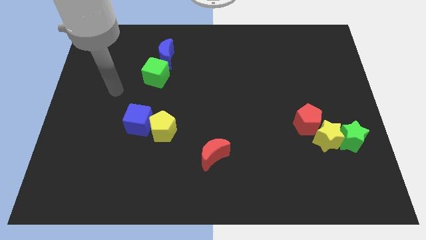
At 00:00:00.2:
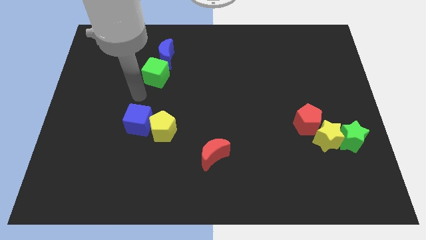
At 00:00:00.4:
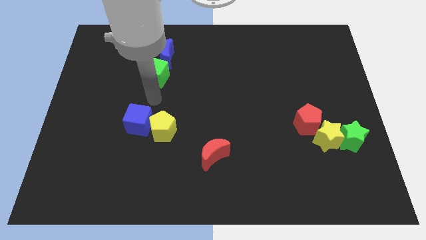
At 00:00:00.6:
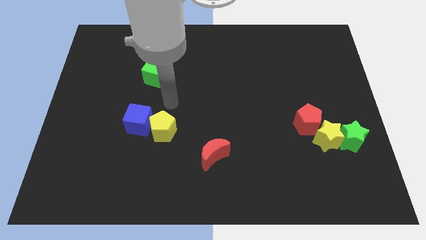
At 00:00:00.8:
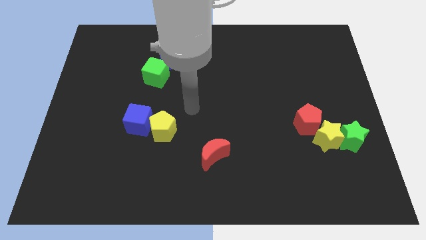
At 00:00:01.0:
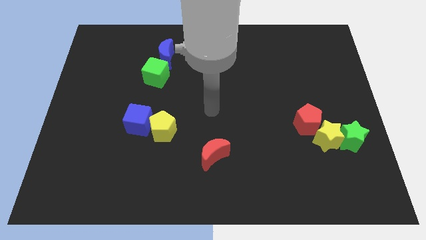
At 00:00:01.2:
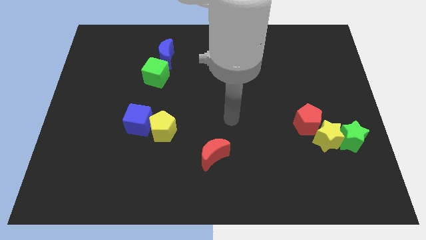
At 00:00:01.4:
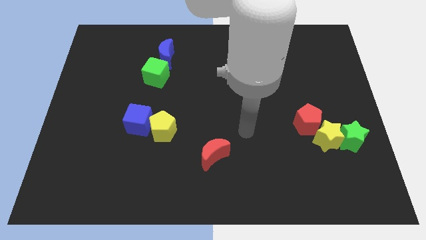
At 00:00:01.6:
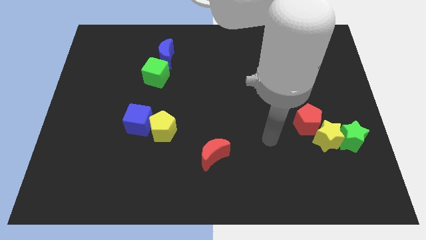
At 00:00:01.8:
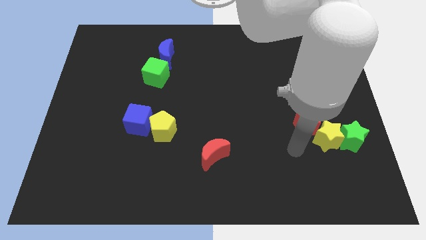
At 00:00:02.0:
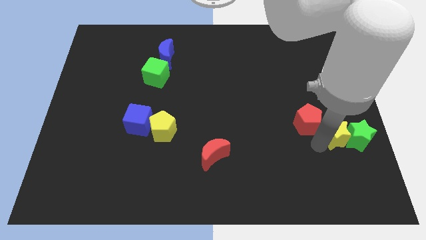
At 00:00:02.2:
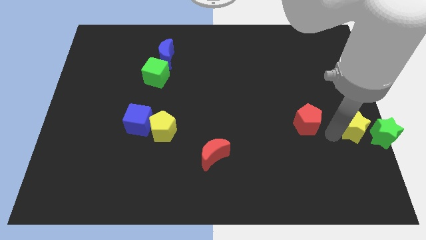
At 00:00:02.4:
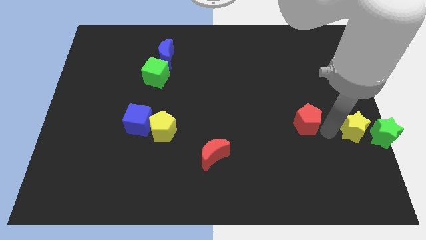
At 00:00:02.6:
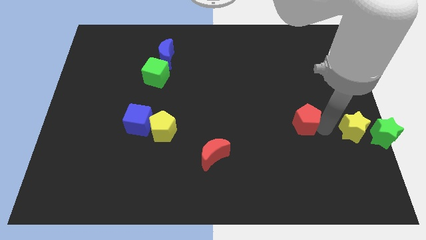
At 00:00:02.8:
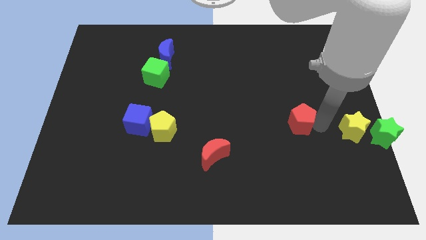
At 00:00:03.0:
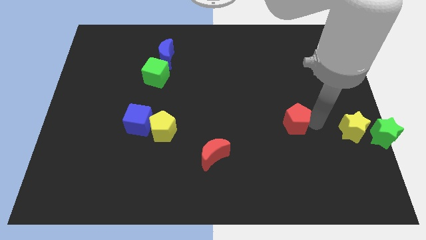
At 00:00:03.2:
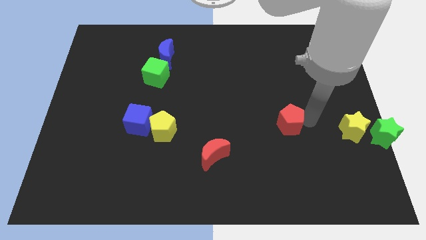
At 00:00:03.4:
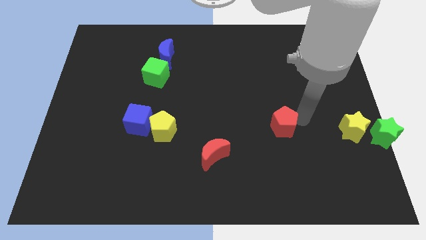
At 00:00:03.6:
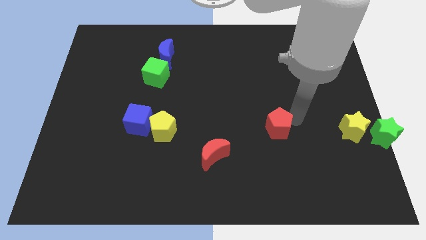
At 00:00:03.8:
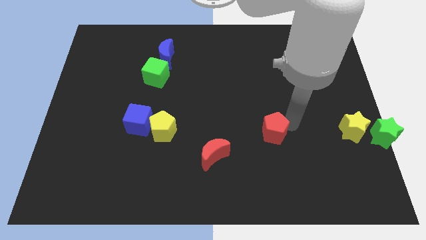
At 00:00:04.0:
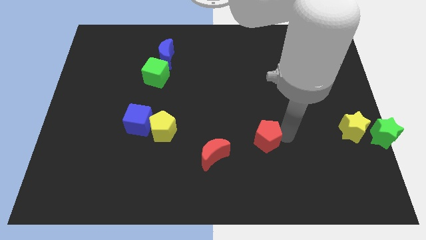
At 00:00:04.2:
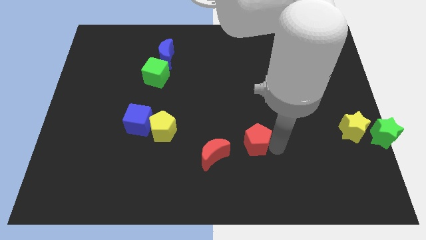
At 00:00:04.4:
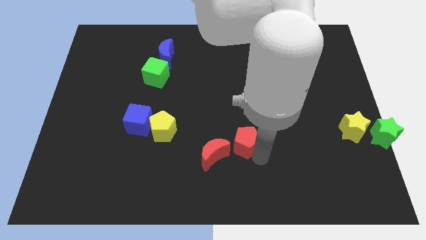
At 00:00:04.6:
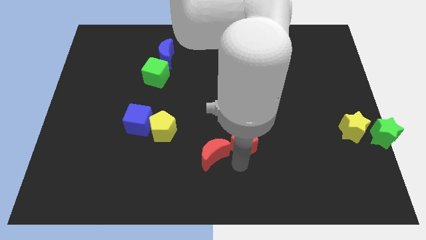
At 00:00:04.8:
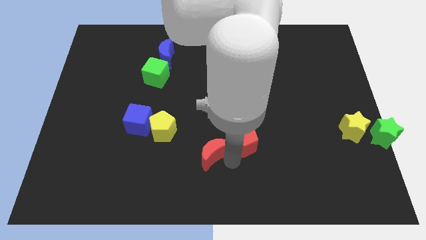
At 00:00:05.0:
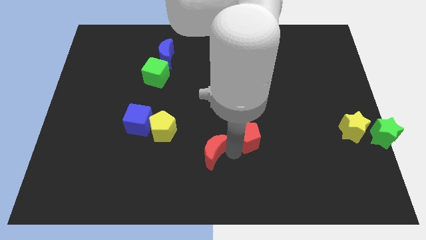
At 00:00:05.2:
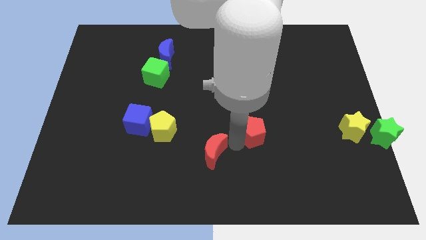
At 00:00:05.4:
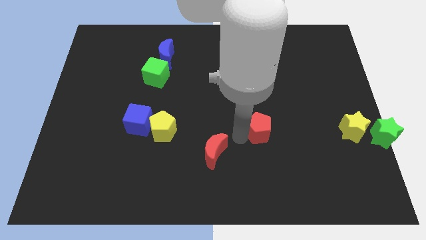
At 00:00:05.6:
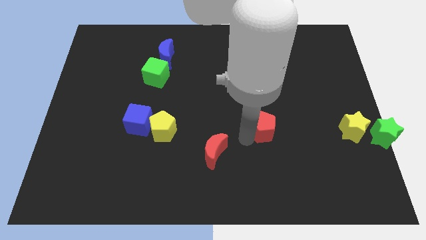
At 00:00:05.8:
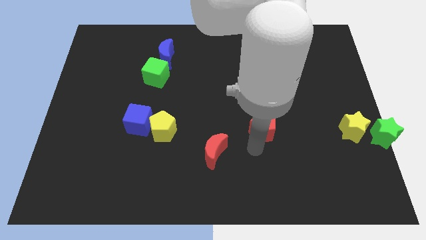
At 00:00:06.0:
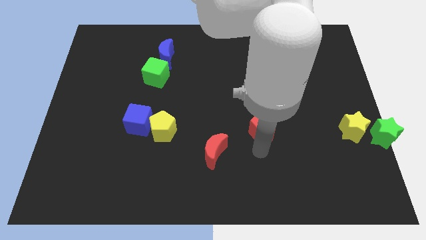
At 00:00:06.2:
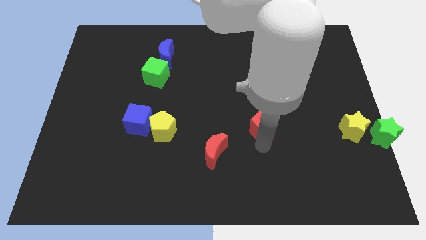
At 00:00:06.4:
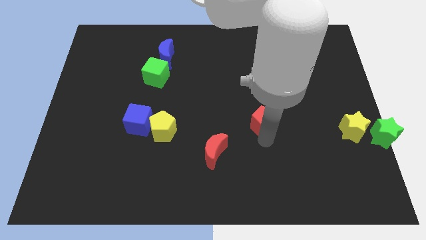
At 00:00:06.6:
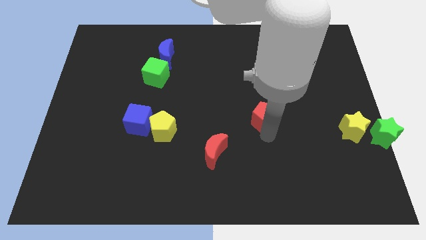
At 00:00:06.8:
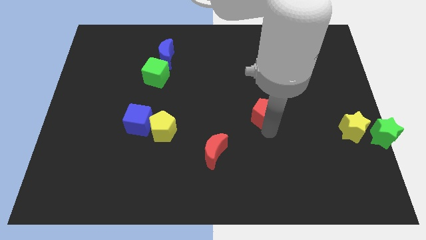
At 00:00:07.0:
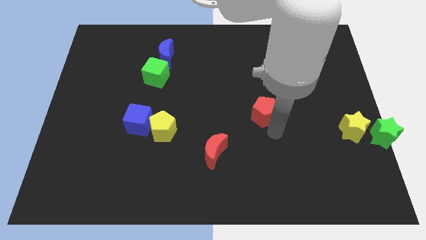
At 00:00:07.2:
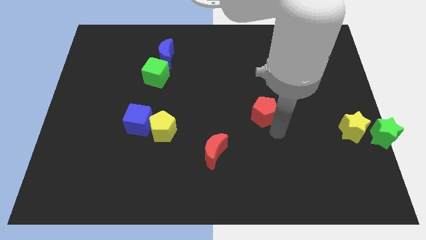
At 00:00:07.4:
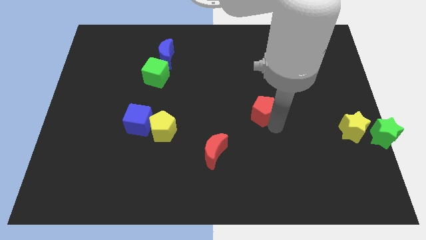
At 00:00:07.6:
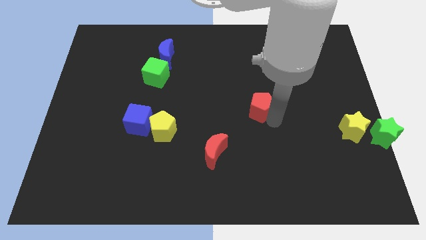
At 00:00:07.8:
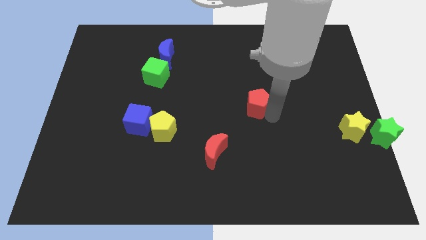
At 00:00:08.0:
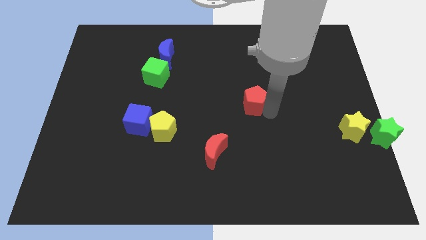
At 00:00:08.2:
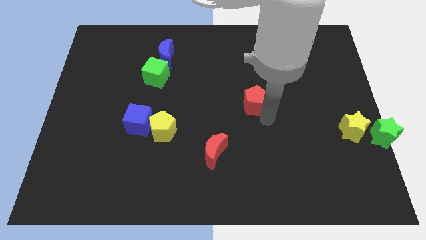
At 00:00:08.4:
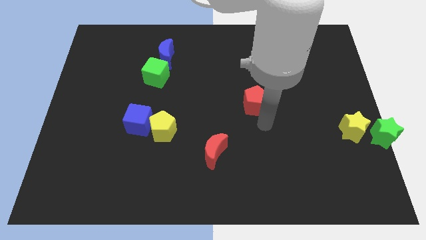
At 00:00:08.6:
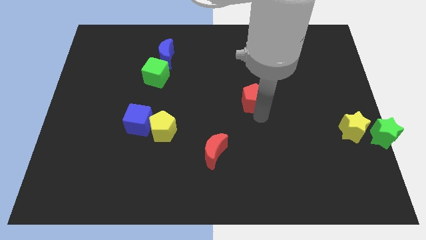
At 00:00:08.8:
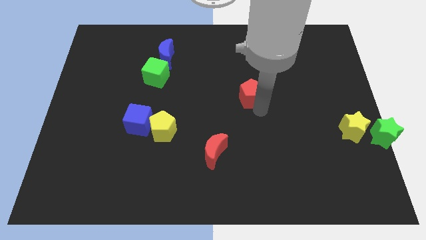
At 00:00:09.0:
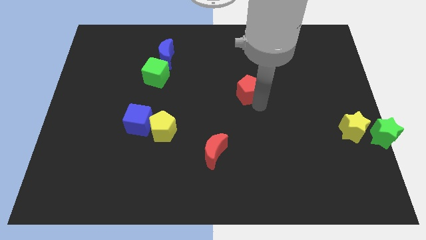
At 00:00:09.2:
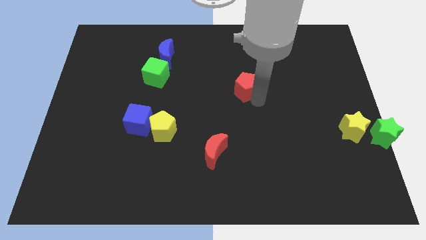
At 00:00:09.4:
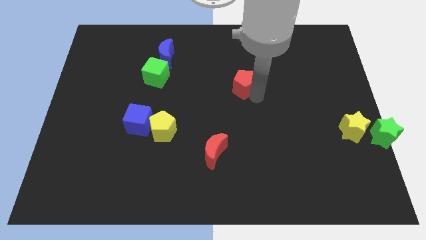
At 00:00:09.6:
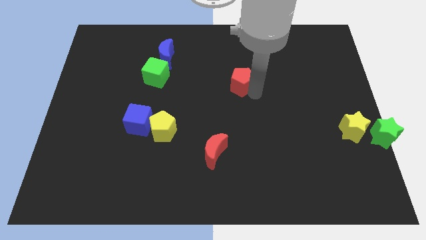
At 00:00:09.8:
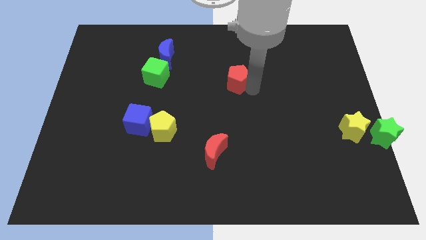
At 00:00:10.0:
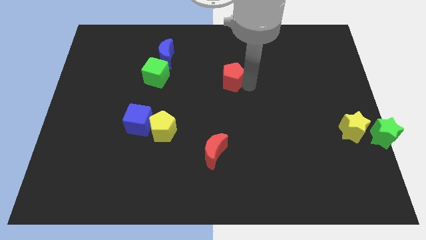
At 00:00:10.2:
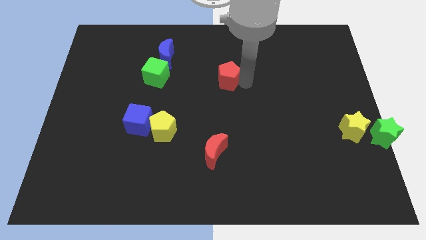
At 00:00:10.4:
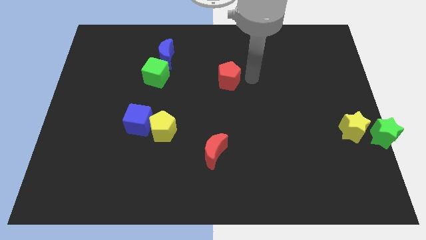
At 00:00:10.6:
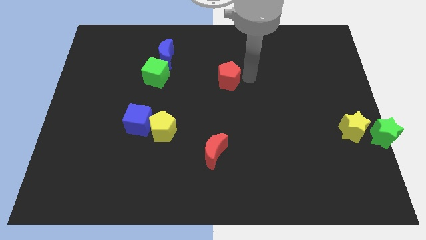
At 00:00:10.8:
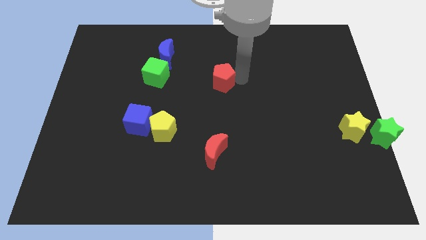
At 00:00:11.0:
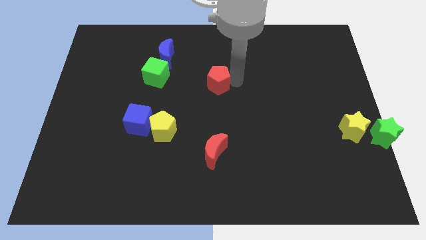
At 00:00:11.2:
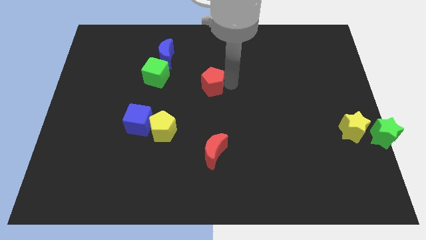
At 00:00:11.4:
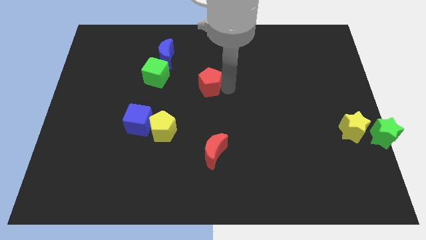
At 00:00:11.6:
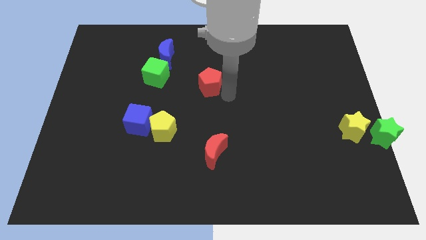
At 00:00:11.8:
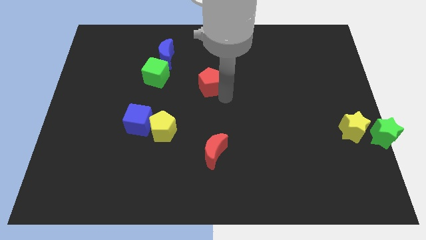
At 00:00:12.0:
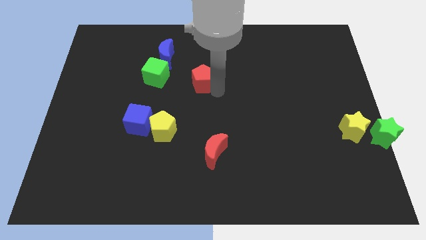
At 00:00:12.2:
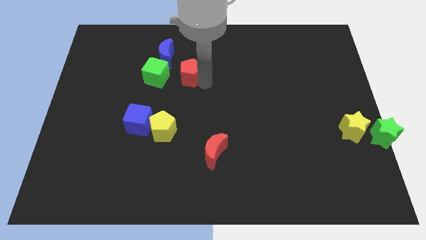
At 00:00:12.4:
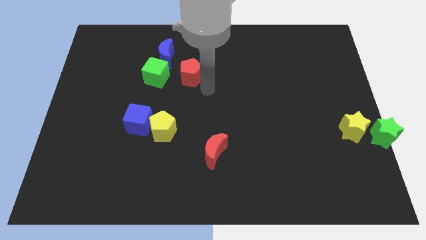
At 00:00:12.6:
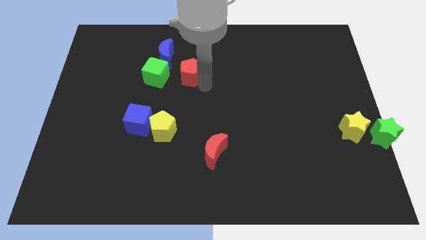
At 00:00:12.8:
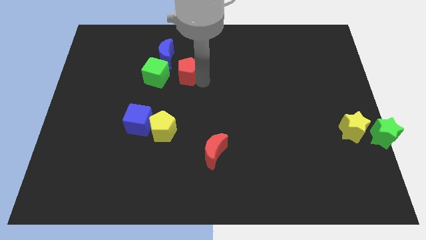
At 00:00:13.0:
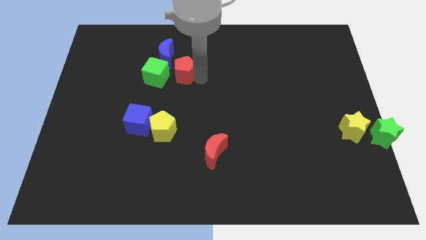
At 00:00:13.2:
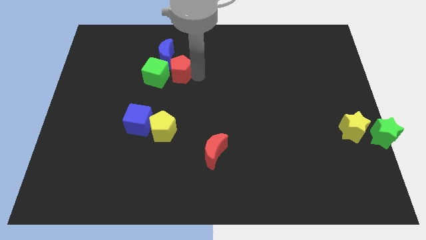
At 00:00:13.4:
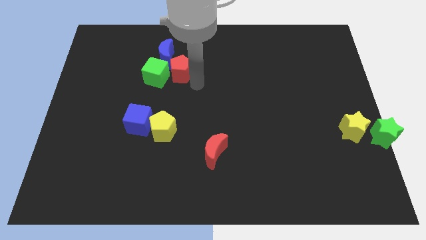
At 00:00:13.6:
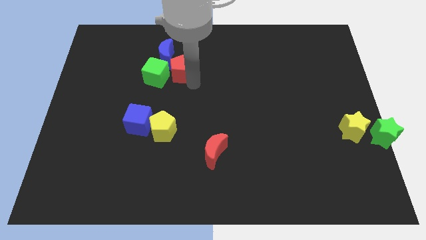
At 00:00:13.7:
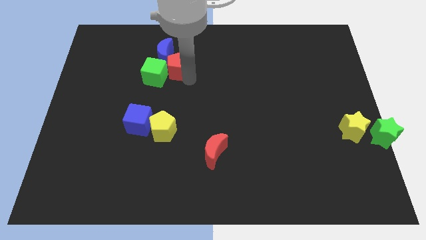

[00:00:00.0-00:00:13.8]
slide the red pentagon to the blue moon
